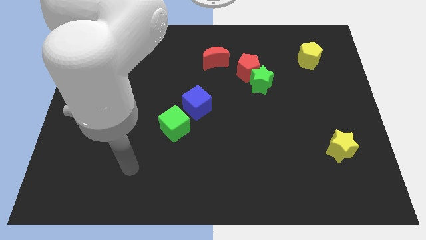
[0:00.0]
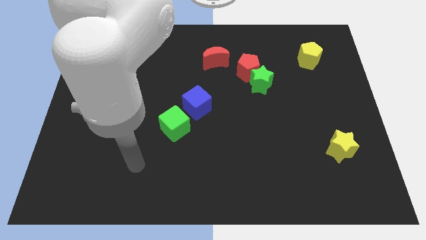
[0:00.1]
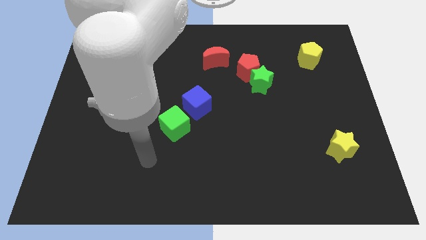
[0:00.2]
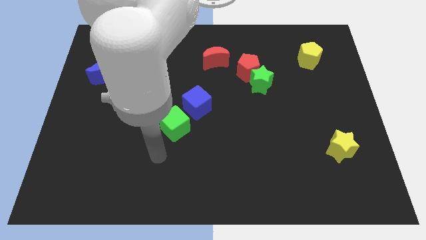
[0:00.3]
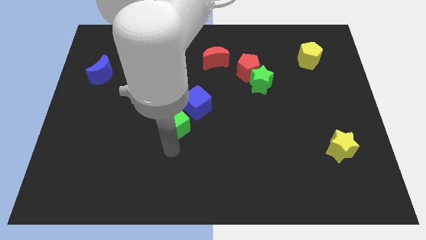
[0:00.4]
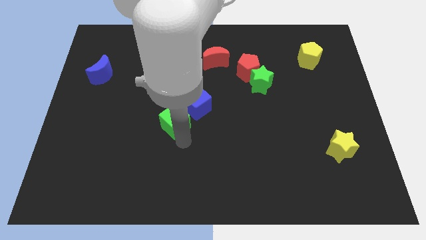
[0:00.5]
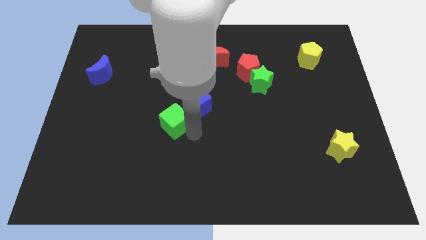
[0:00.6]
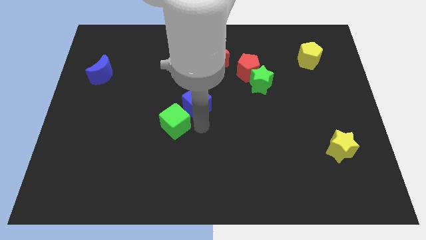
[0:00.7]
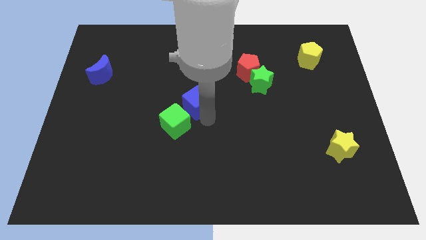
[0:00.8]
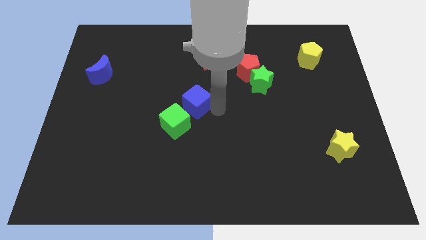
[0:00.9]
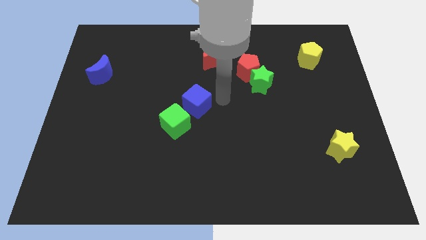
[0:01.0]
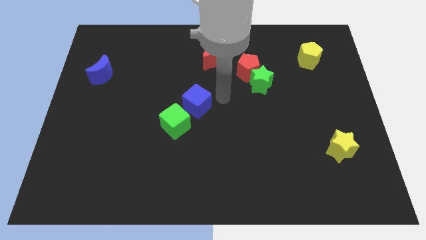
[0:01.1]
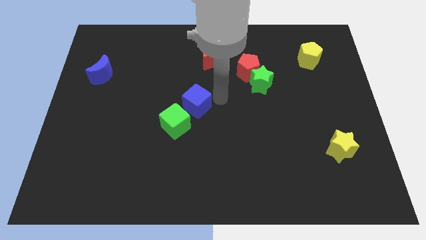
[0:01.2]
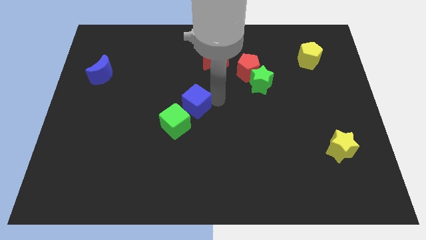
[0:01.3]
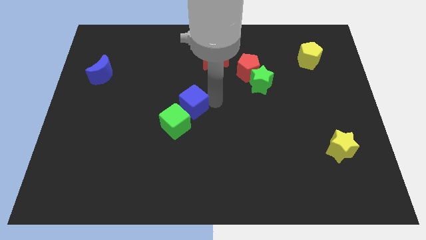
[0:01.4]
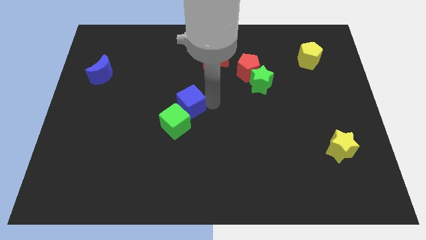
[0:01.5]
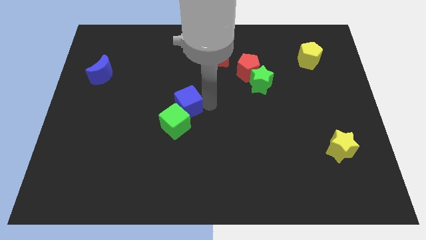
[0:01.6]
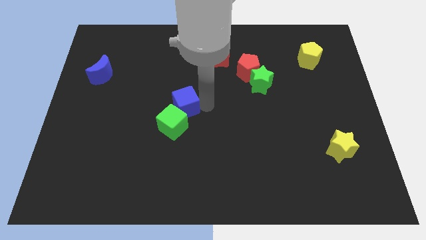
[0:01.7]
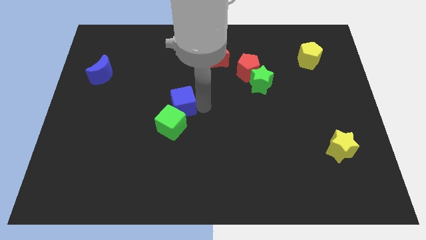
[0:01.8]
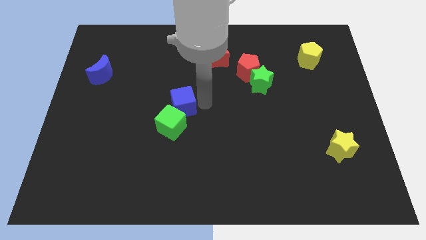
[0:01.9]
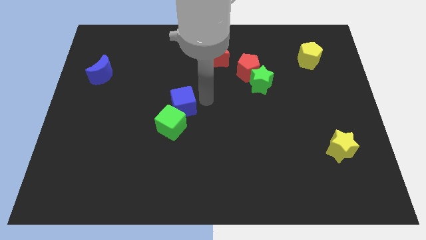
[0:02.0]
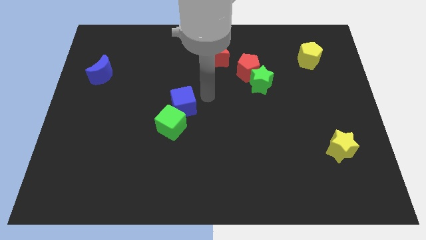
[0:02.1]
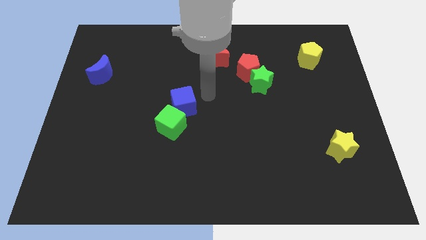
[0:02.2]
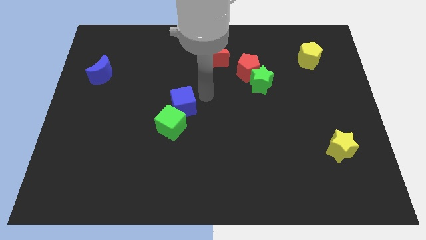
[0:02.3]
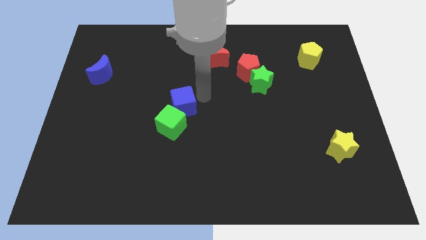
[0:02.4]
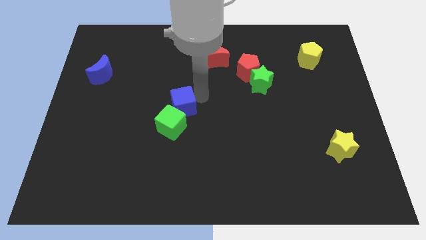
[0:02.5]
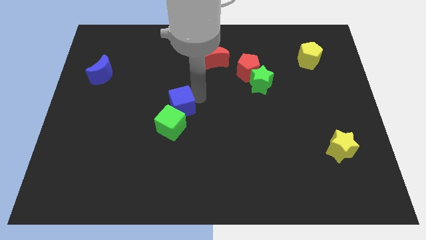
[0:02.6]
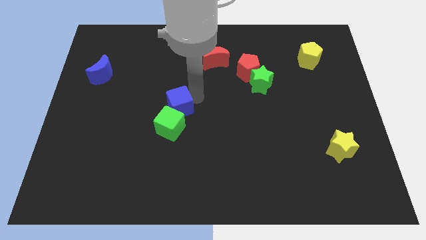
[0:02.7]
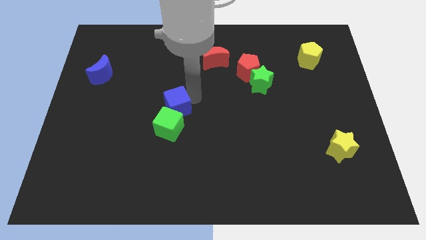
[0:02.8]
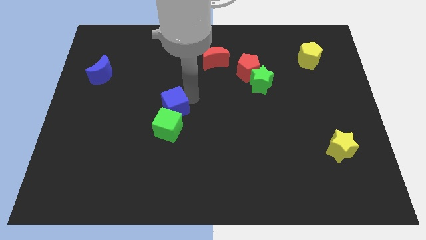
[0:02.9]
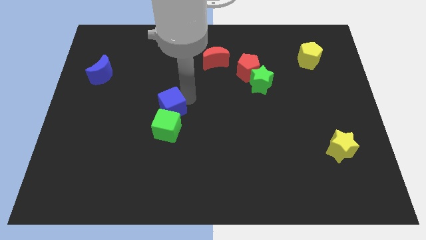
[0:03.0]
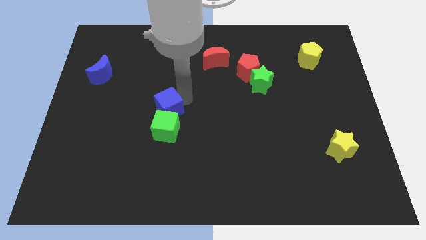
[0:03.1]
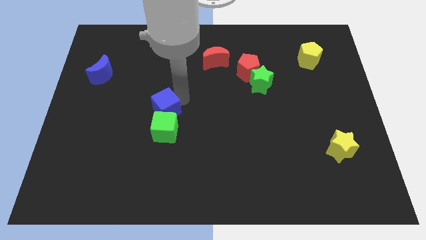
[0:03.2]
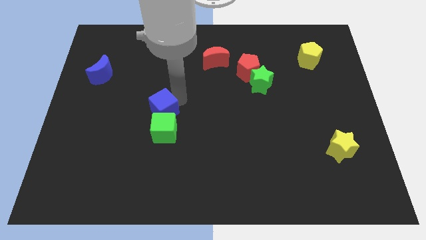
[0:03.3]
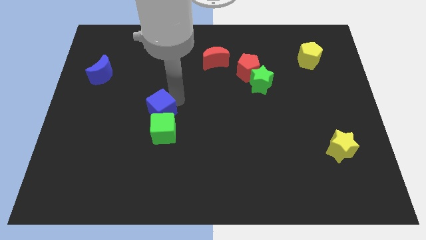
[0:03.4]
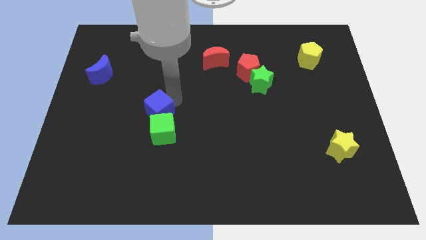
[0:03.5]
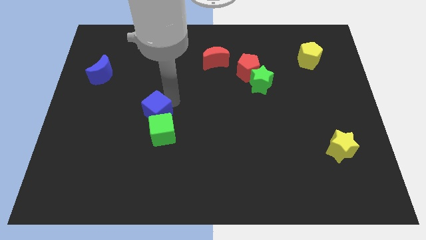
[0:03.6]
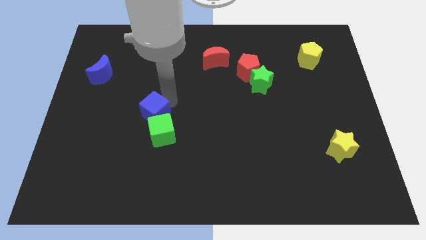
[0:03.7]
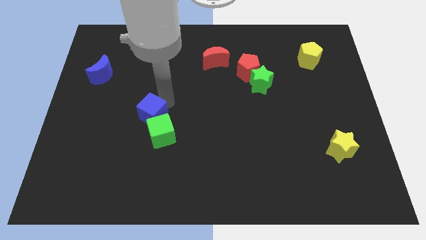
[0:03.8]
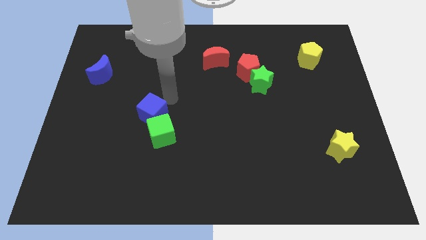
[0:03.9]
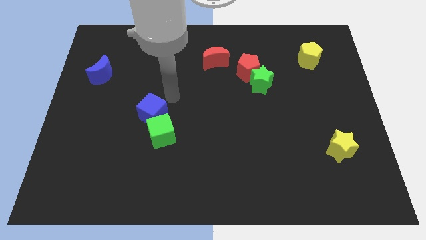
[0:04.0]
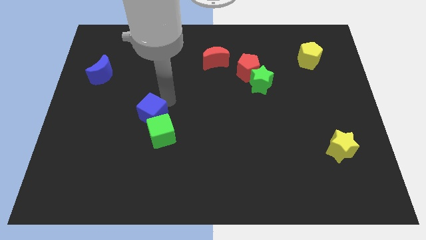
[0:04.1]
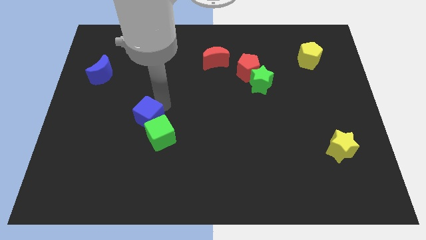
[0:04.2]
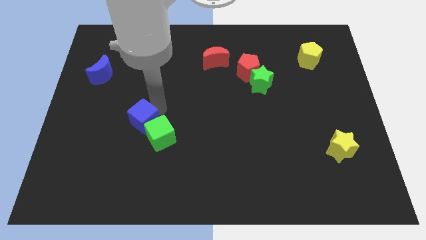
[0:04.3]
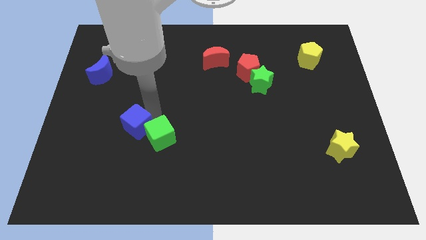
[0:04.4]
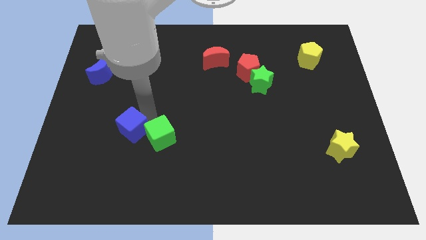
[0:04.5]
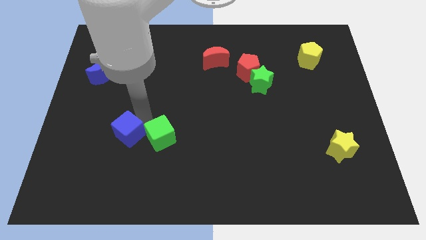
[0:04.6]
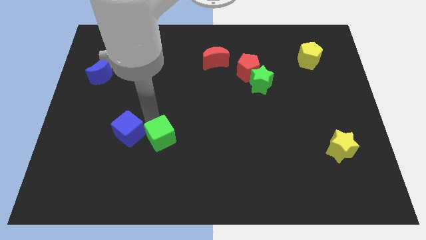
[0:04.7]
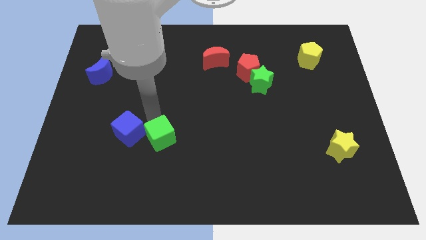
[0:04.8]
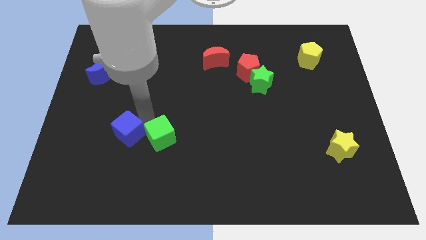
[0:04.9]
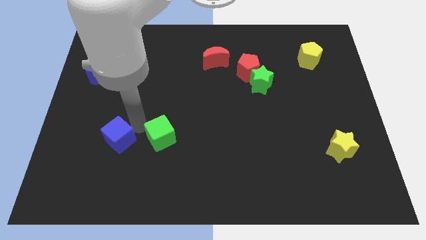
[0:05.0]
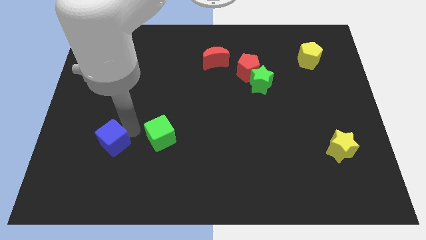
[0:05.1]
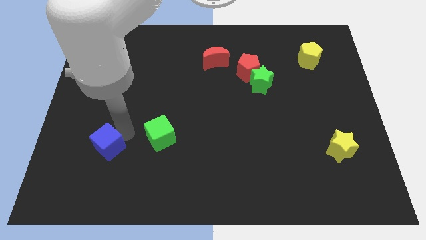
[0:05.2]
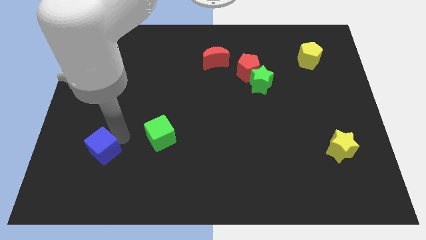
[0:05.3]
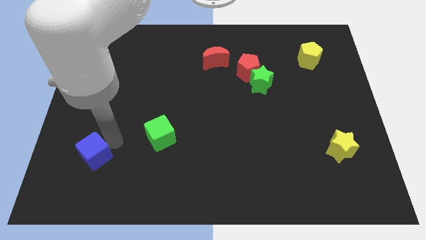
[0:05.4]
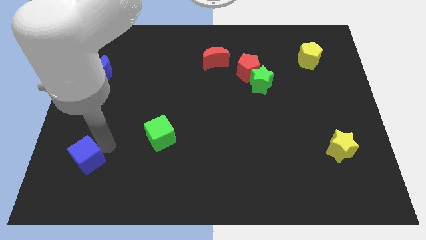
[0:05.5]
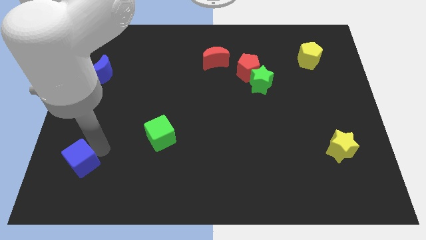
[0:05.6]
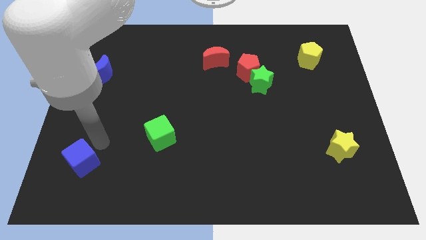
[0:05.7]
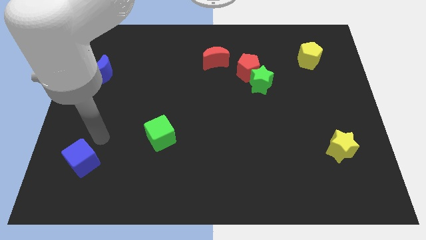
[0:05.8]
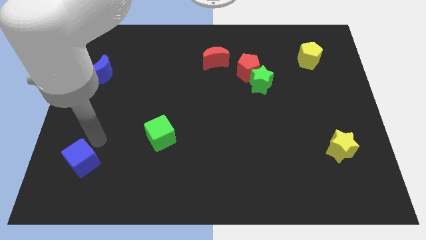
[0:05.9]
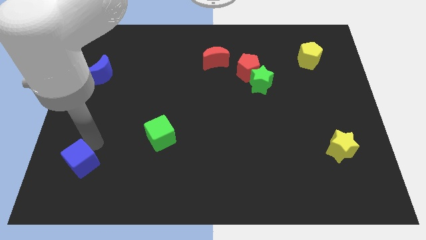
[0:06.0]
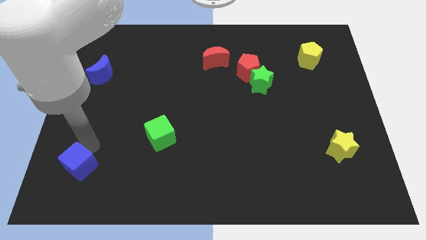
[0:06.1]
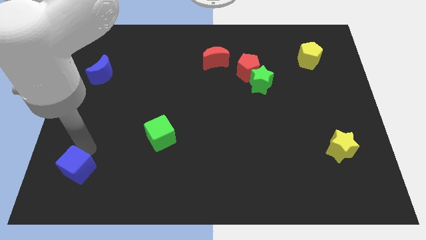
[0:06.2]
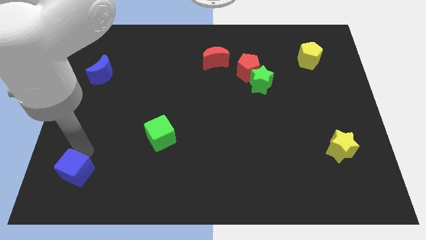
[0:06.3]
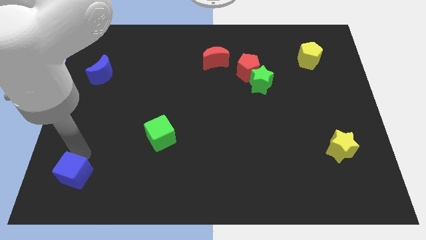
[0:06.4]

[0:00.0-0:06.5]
slide the blue cube to the bottom left
